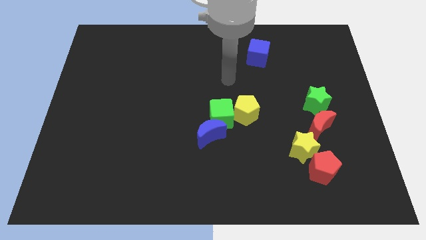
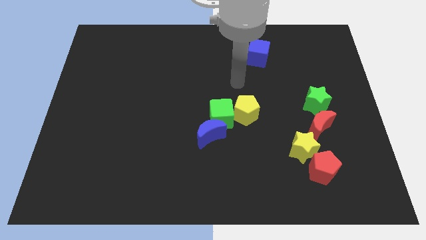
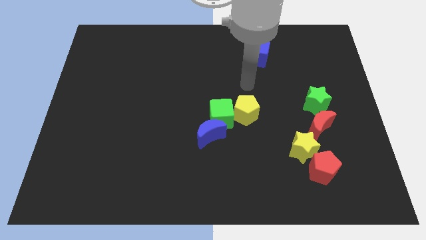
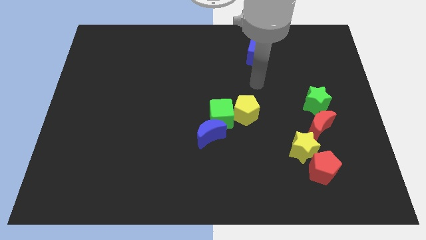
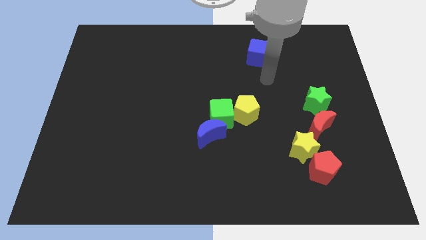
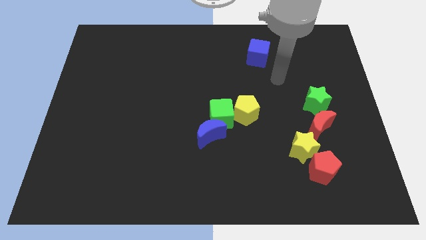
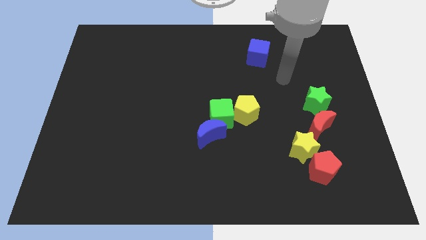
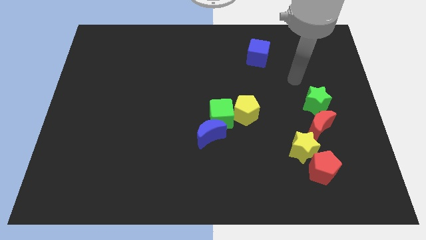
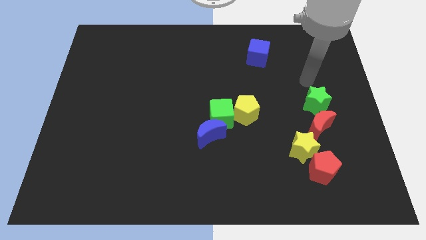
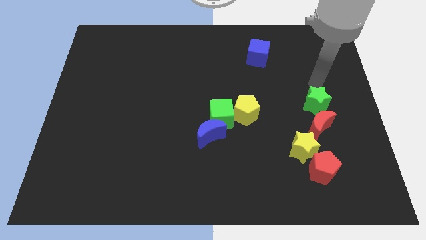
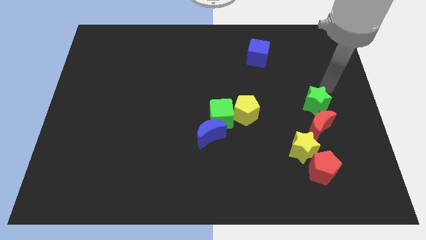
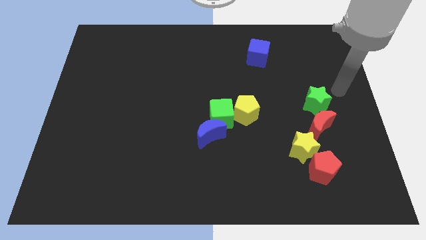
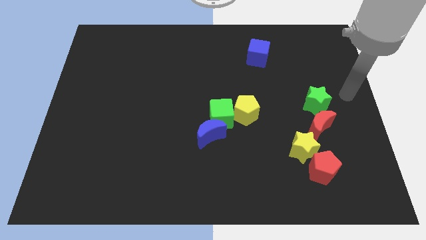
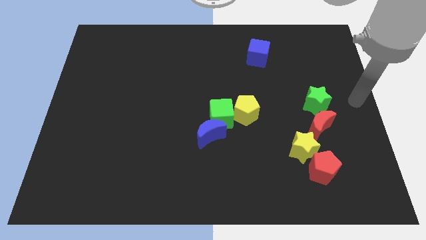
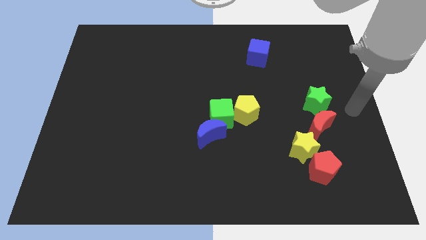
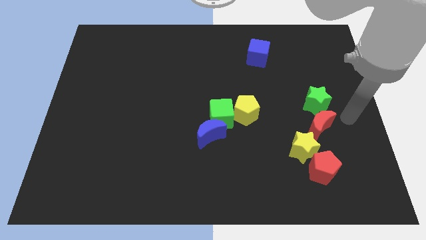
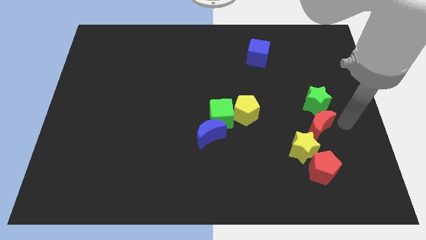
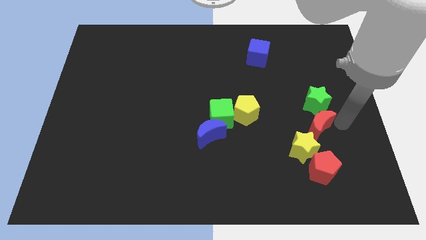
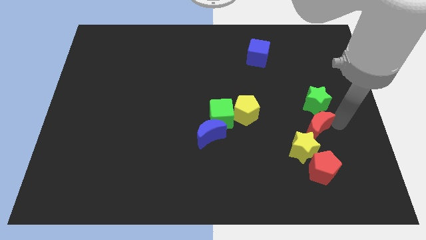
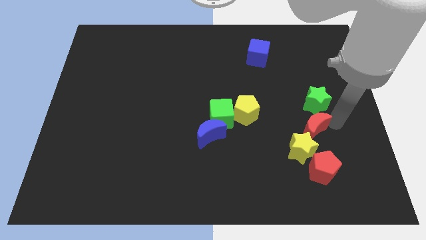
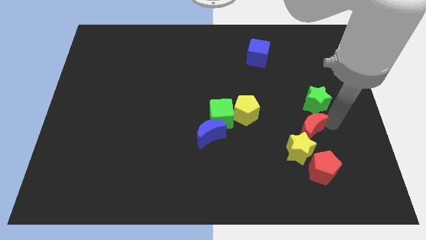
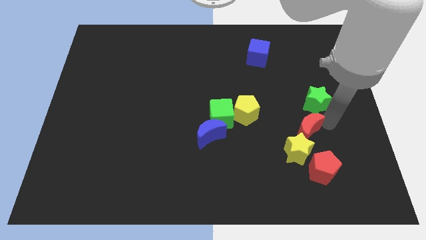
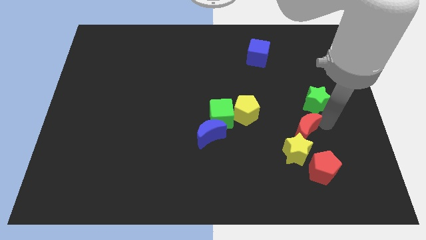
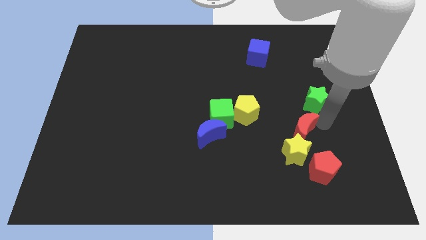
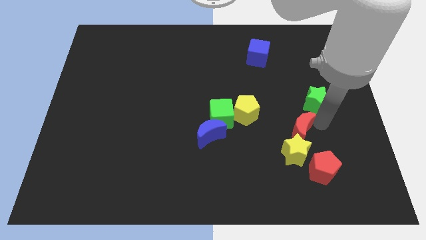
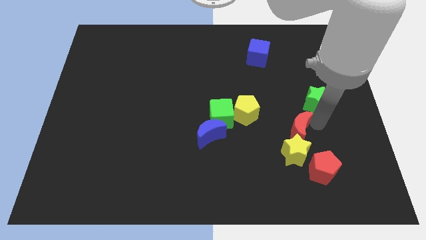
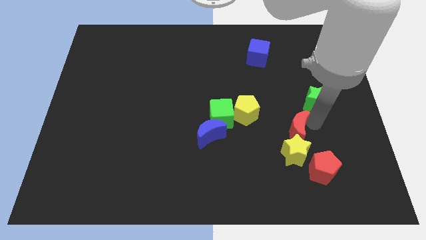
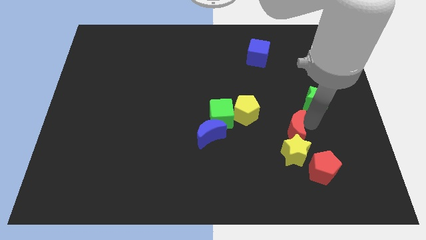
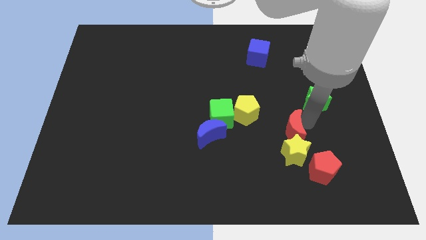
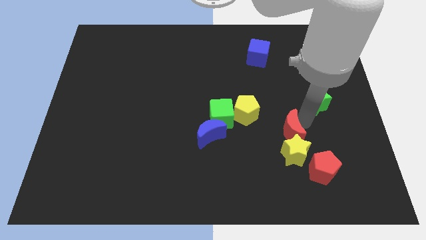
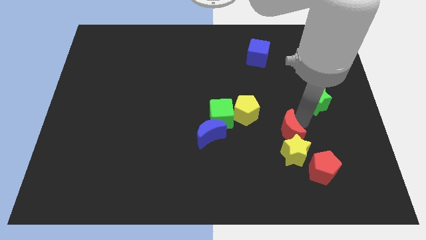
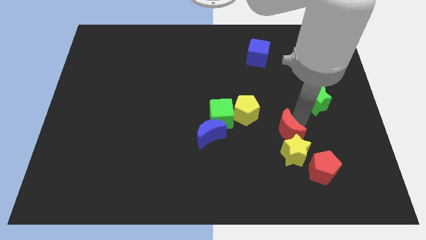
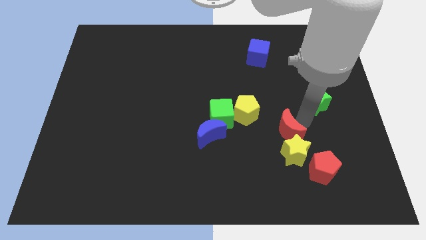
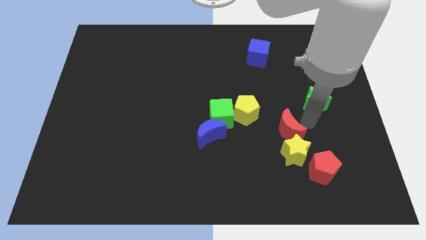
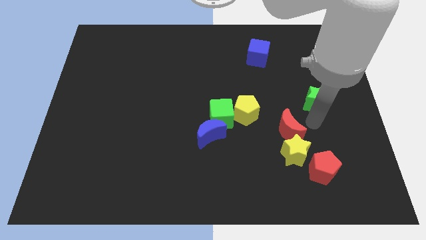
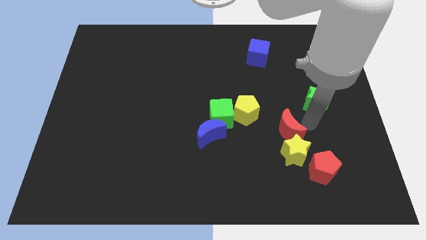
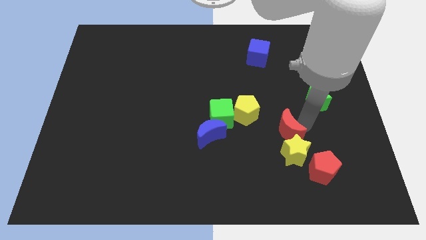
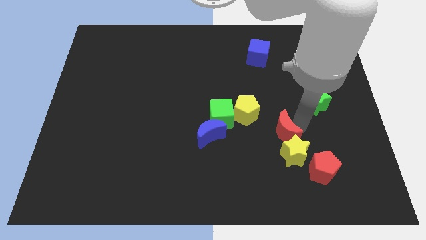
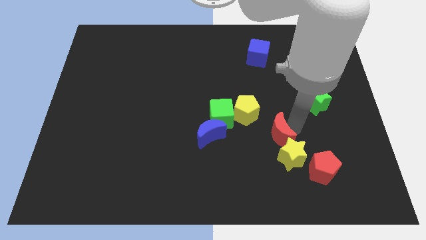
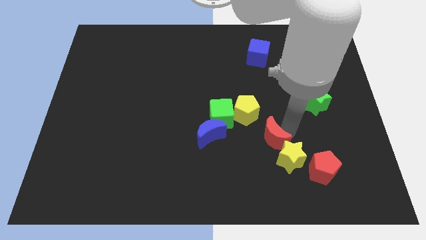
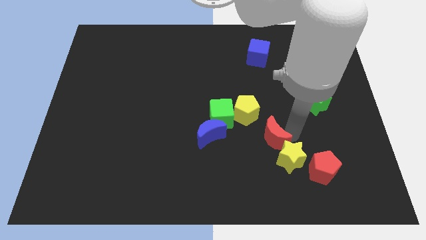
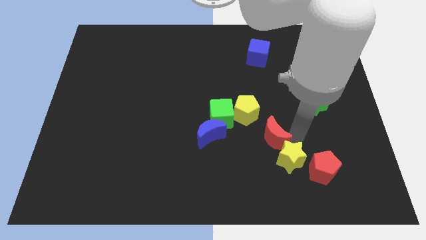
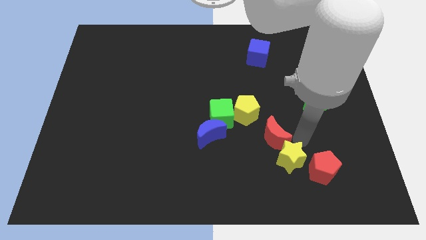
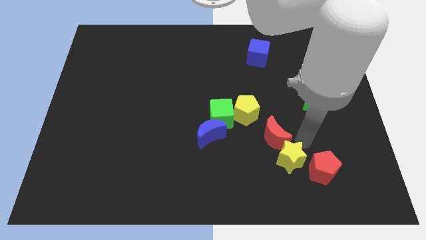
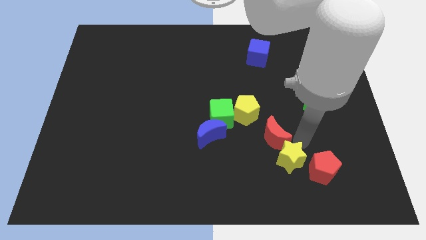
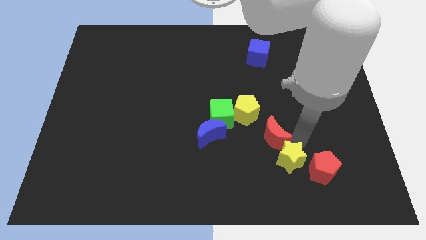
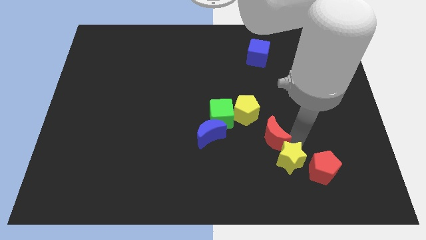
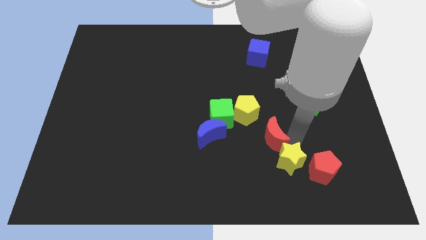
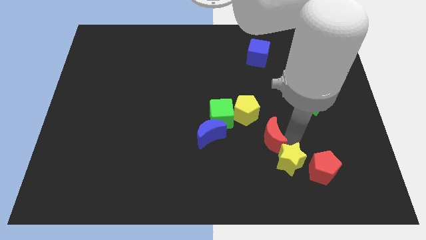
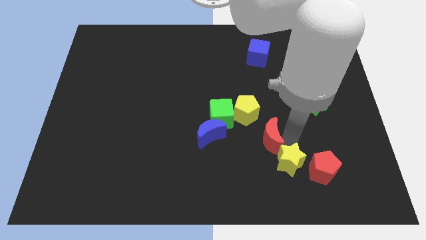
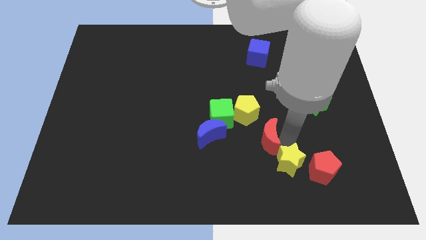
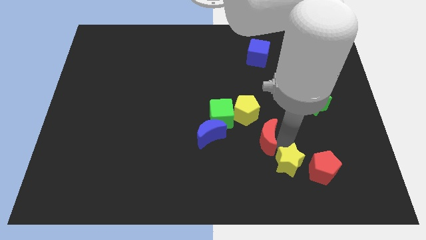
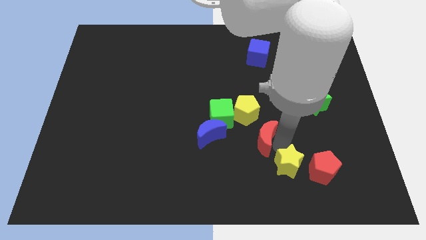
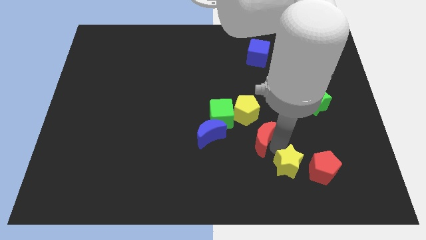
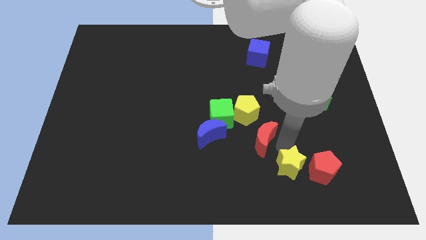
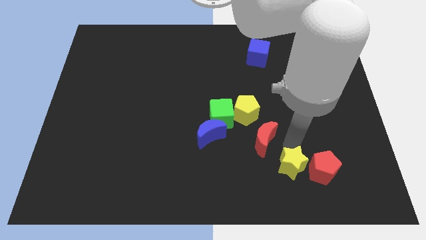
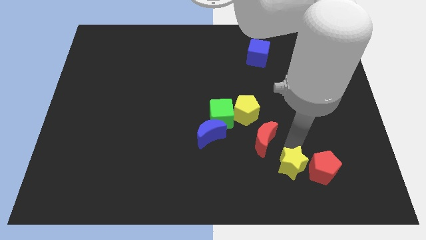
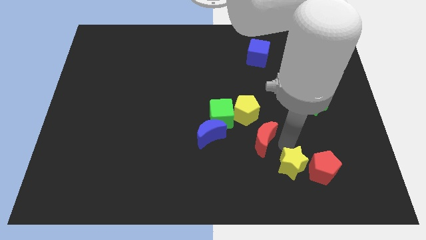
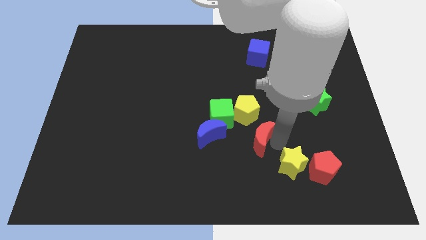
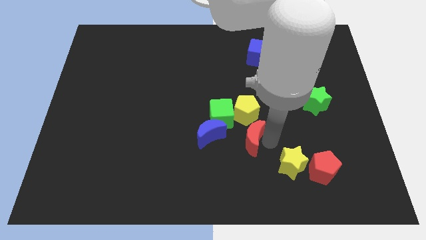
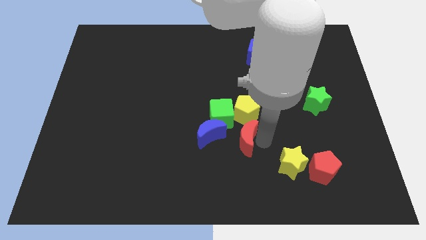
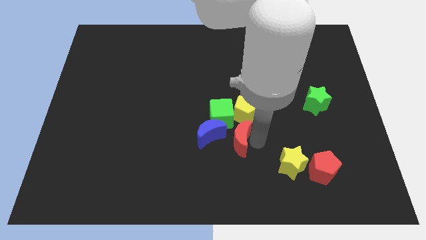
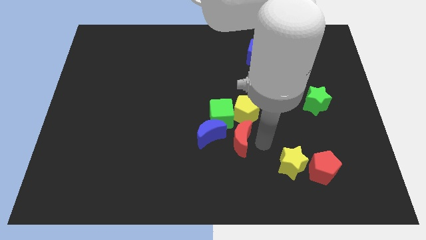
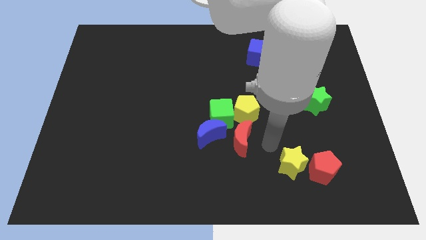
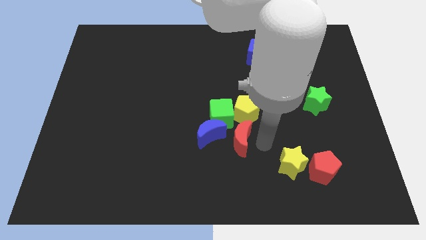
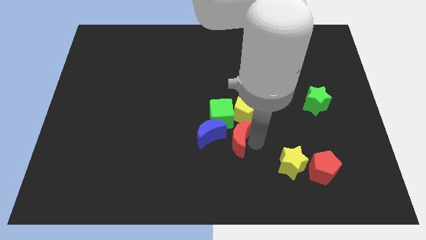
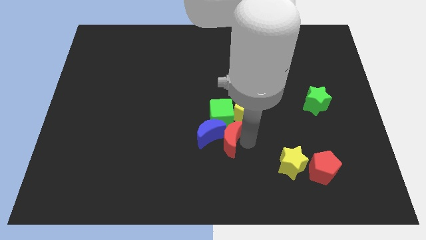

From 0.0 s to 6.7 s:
put the red moon close to the blue moon

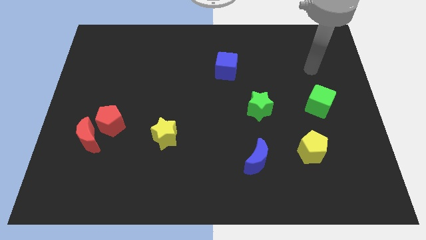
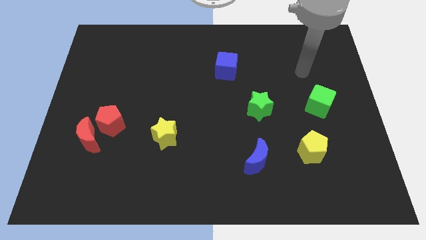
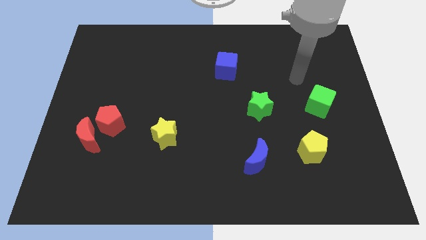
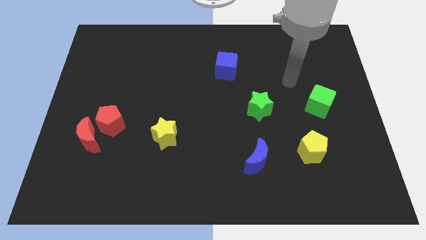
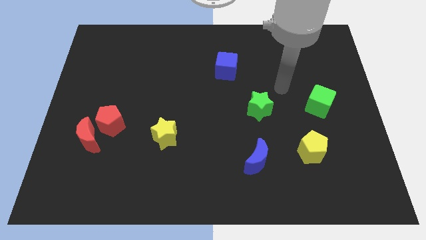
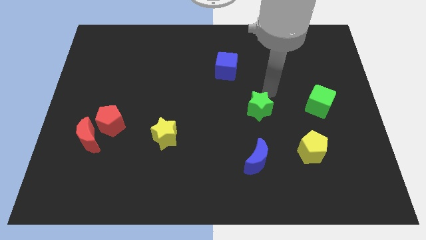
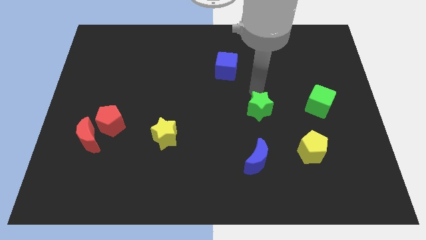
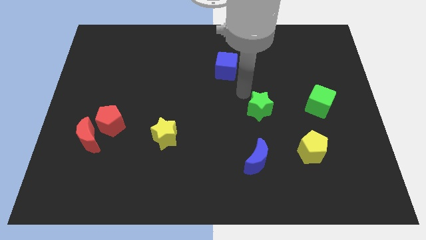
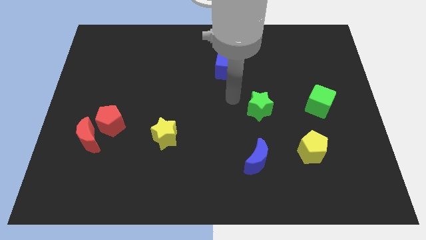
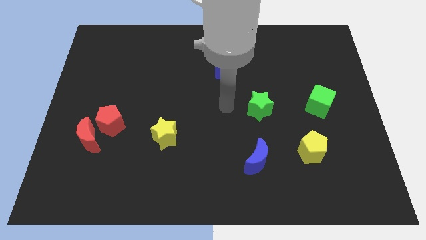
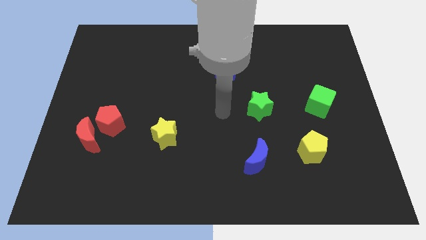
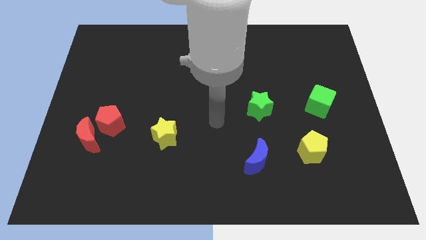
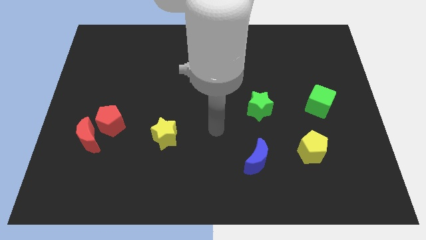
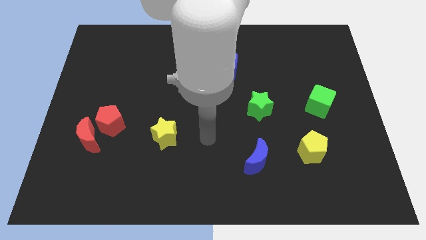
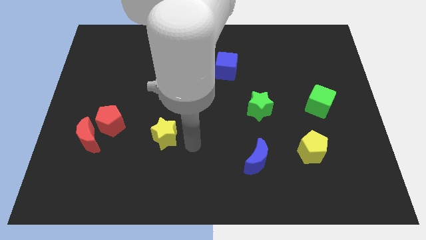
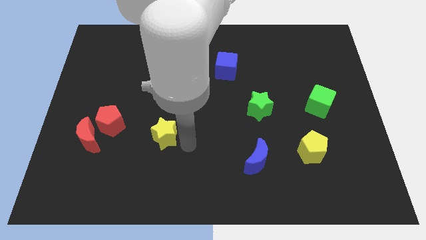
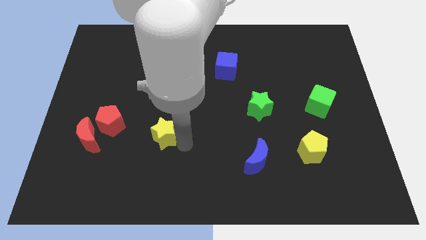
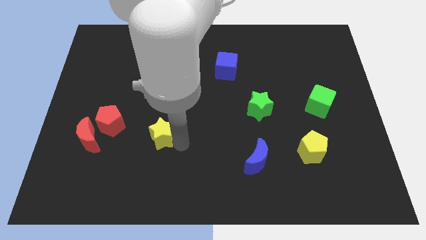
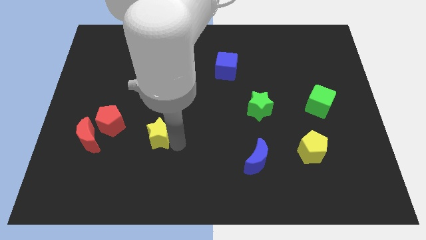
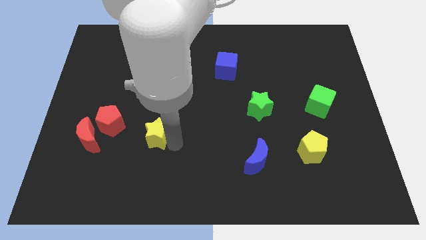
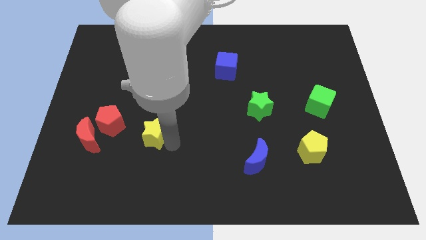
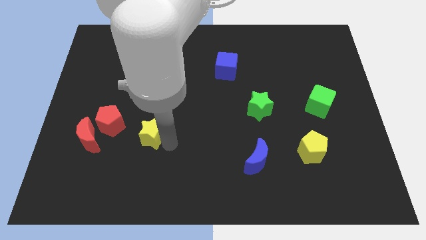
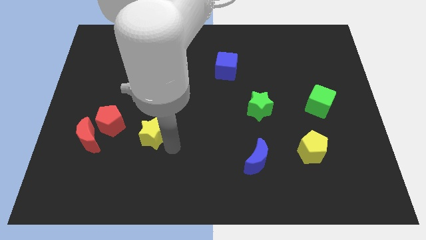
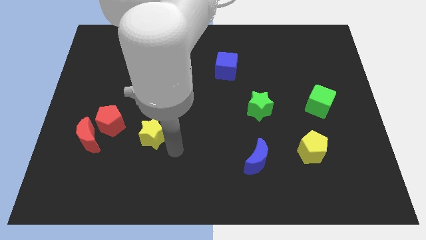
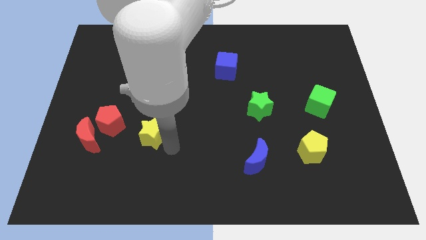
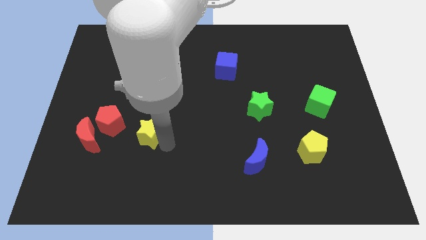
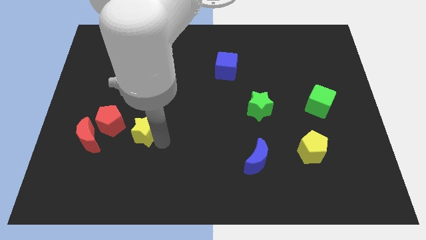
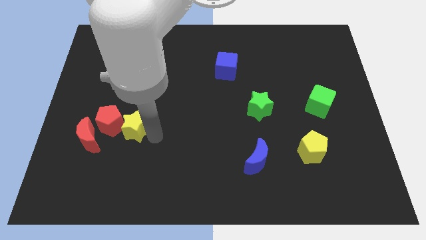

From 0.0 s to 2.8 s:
slide the yellow star next to the red pentagon
